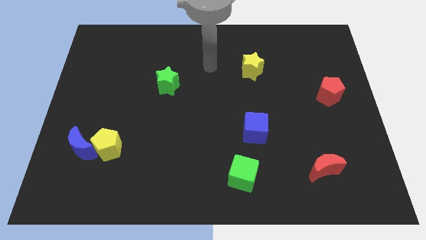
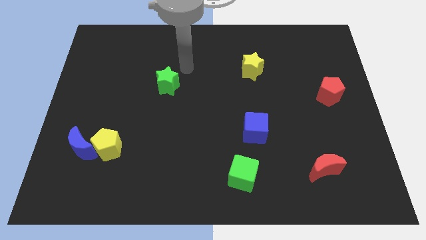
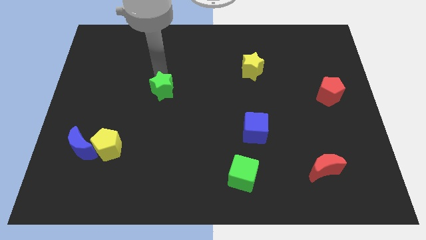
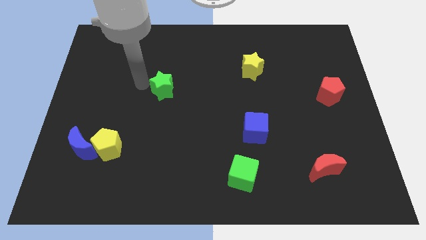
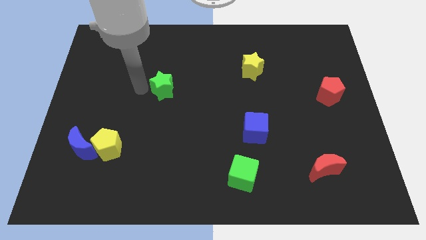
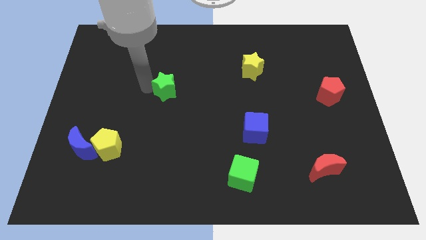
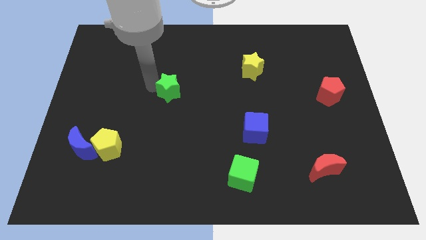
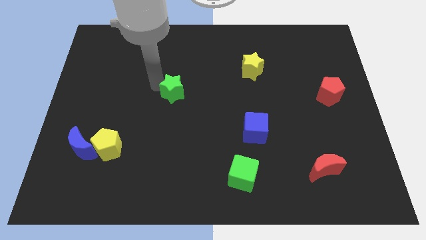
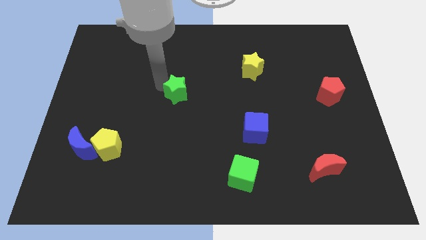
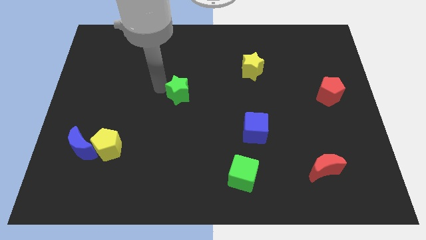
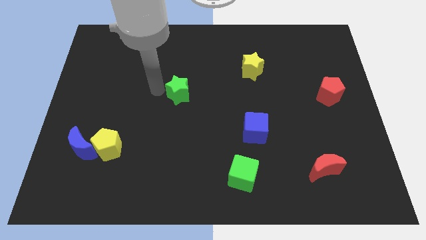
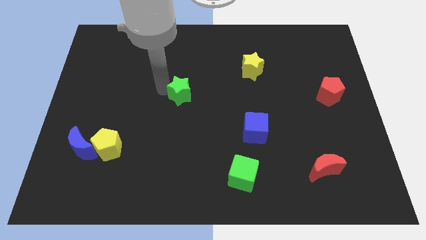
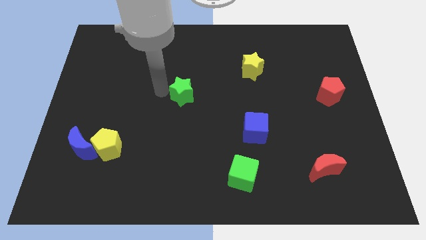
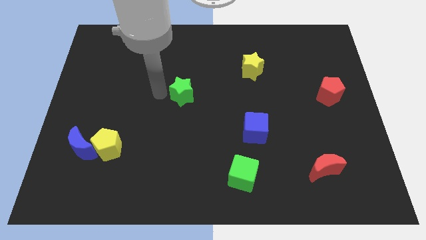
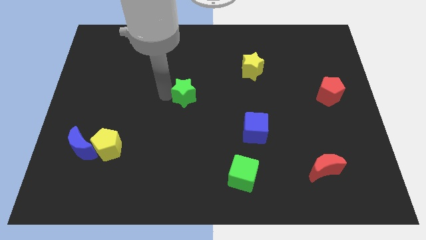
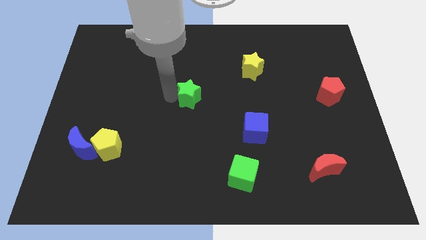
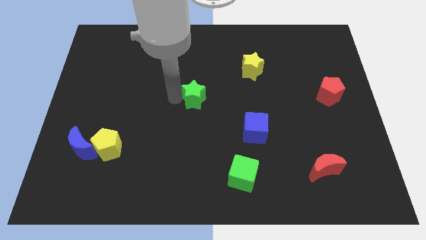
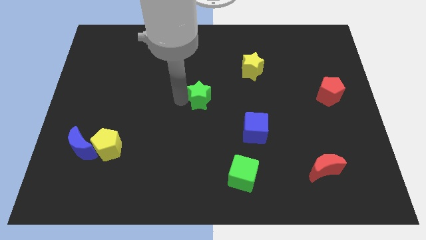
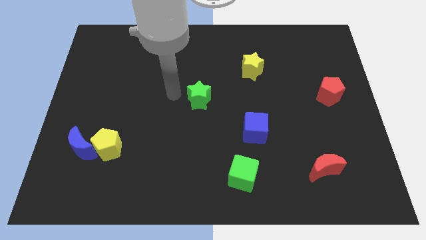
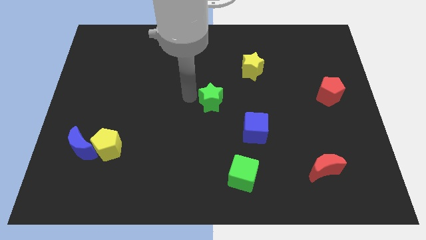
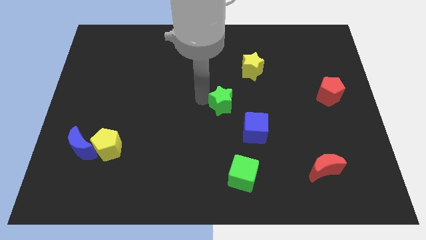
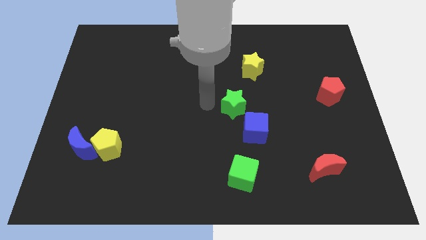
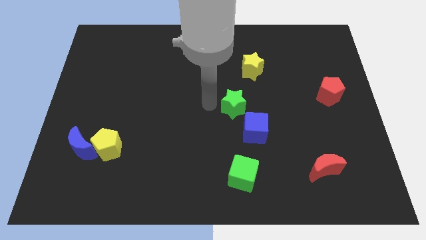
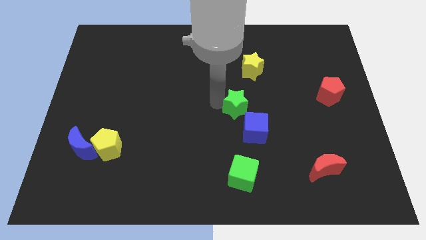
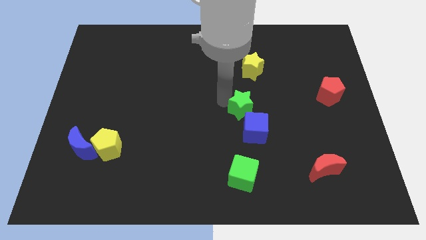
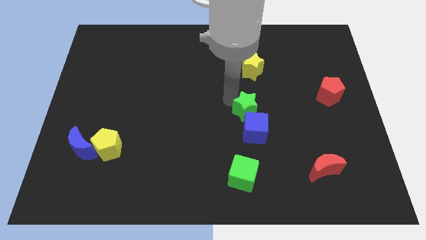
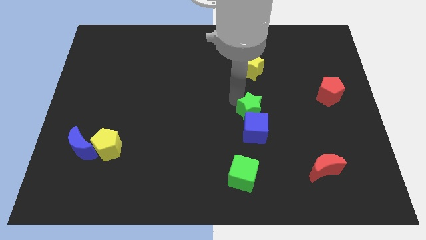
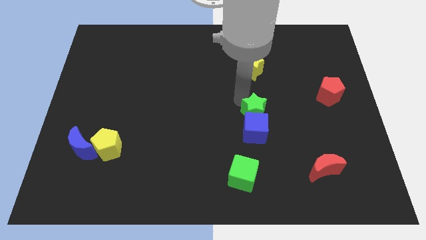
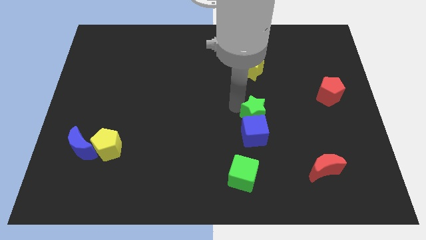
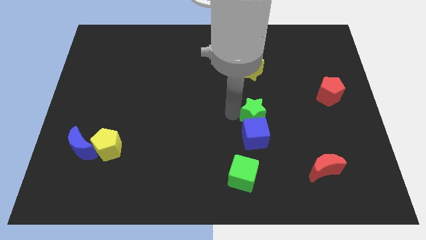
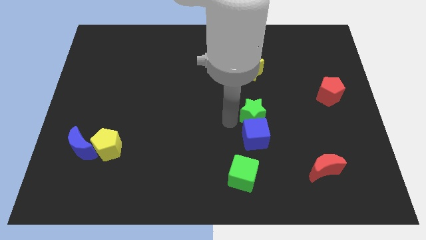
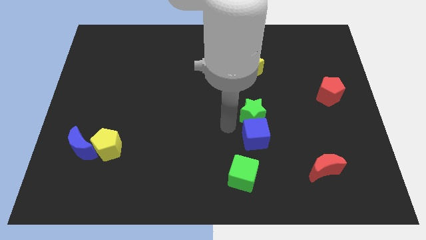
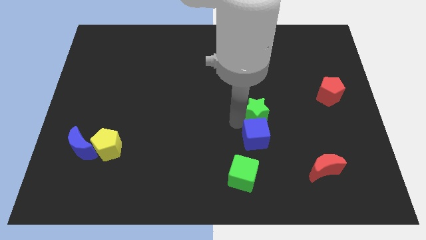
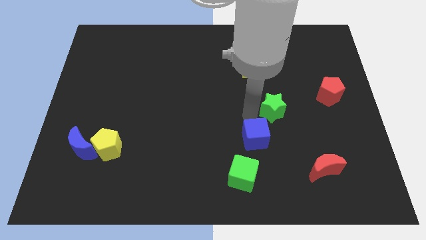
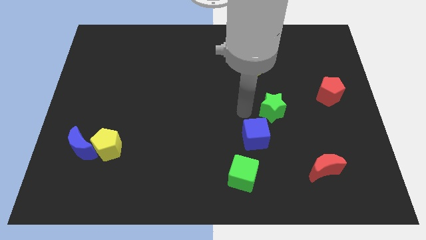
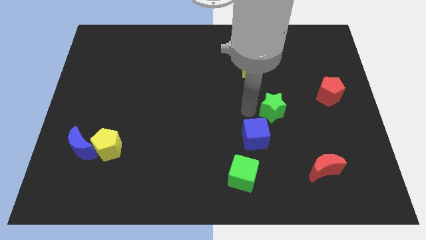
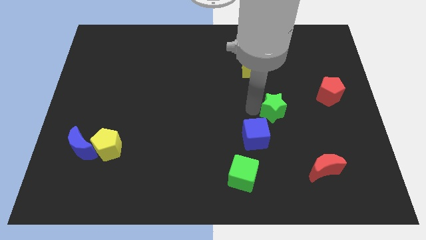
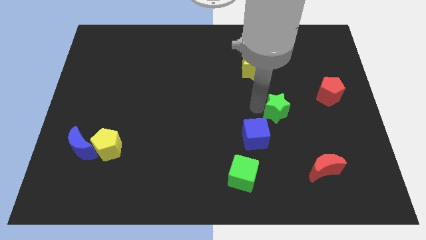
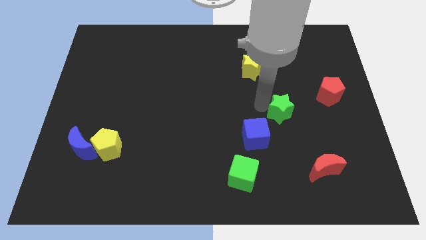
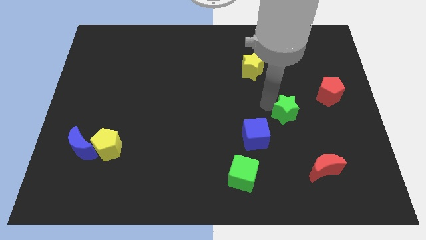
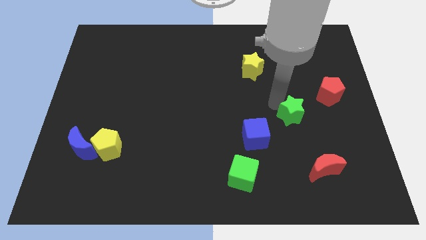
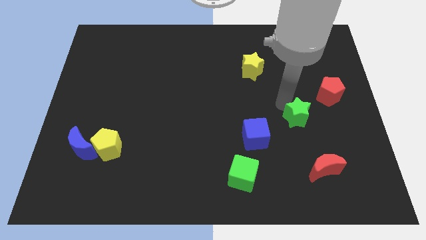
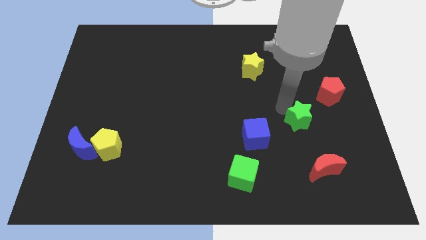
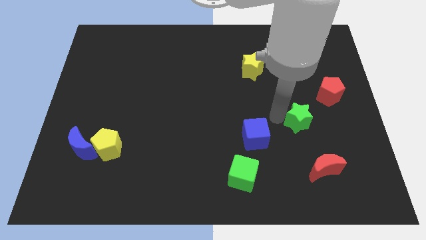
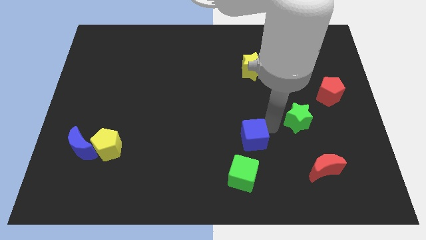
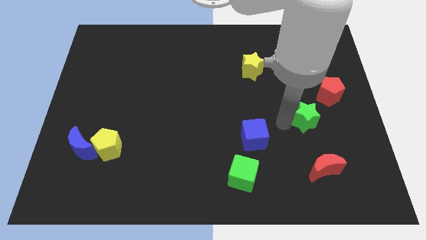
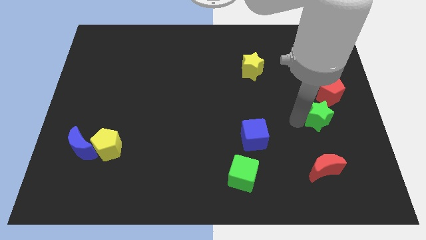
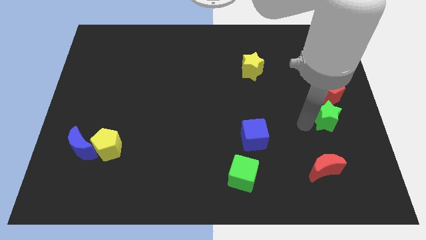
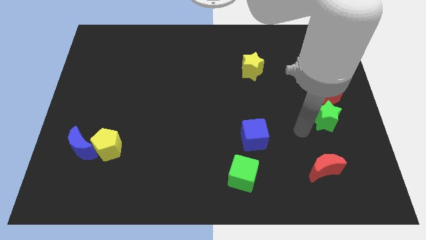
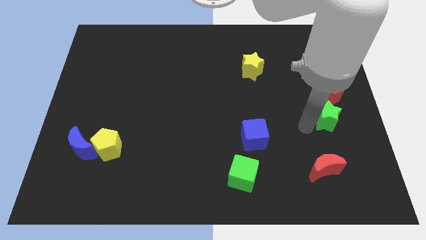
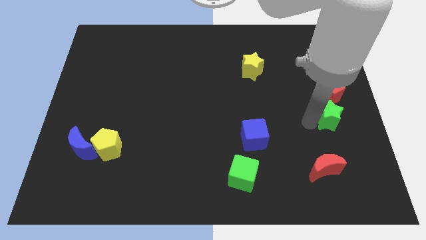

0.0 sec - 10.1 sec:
move the green star to the center right

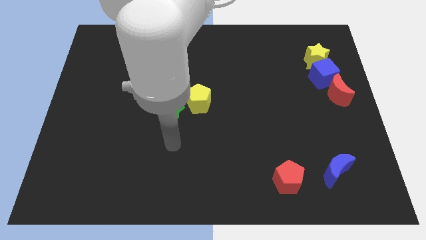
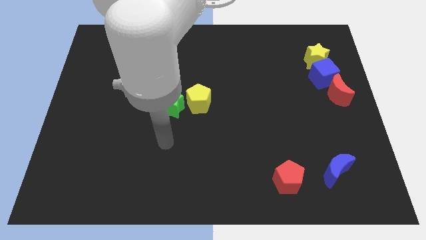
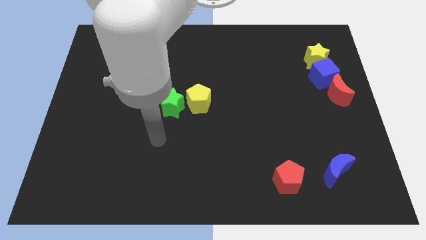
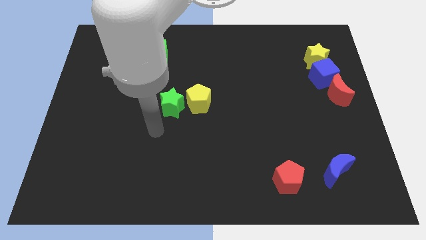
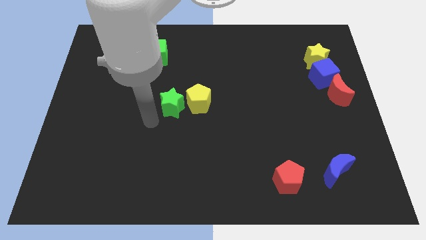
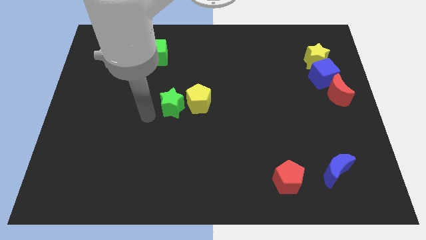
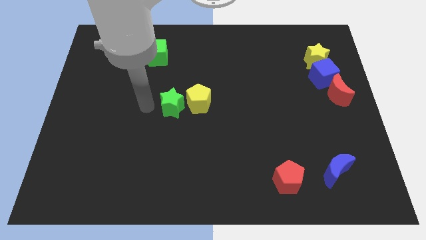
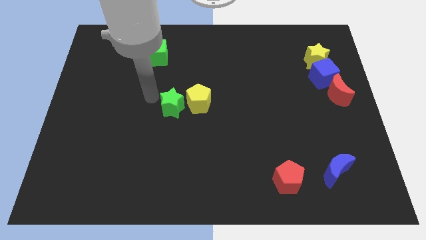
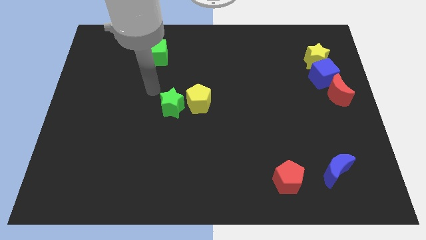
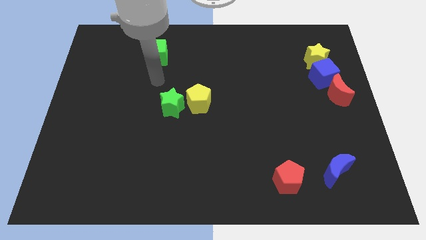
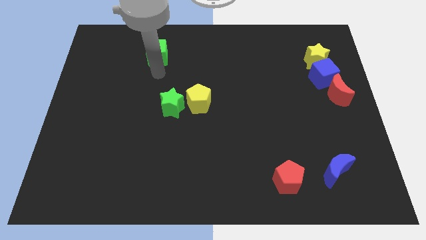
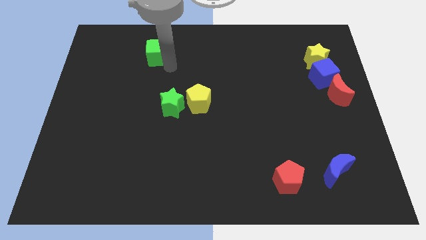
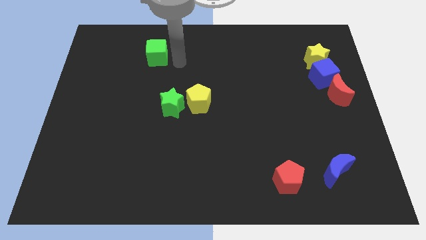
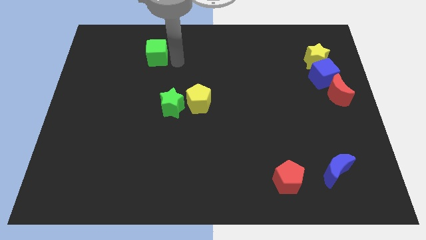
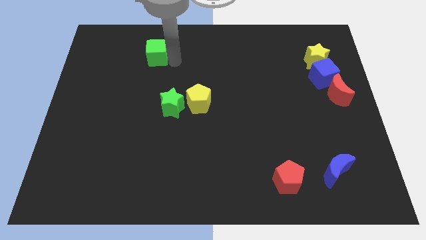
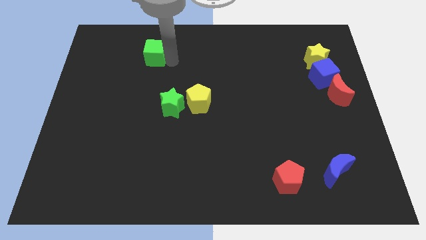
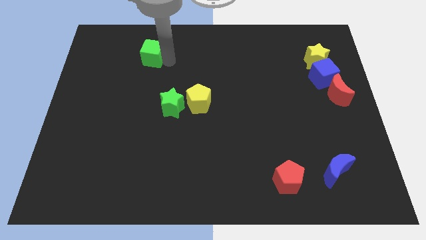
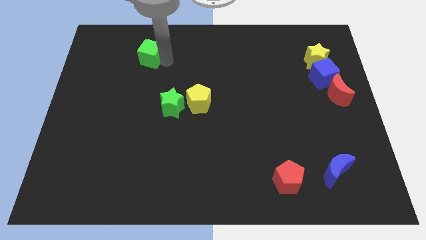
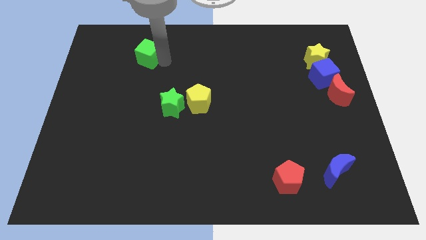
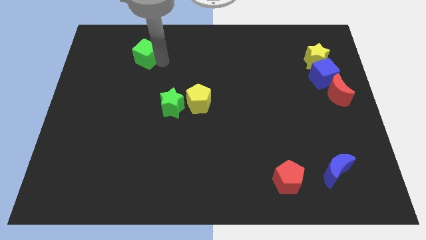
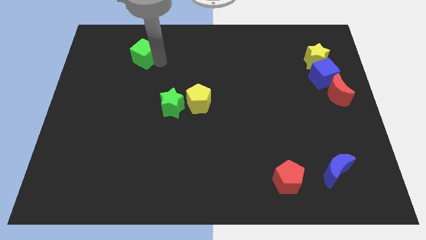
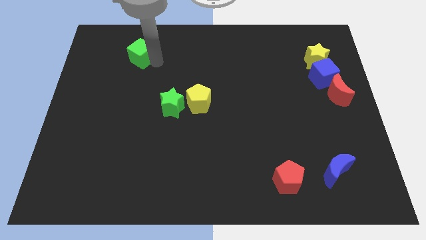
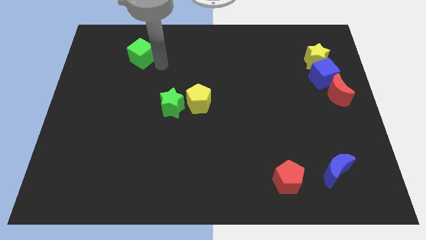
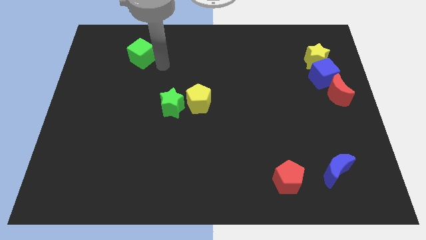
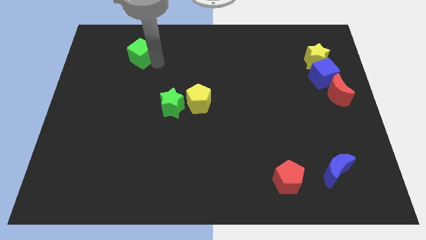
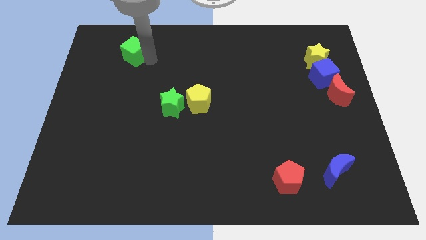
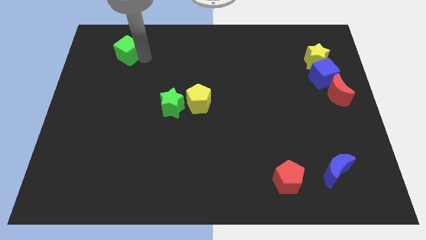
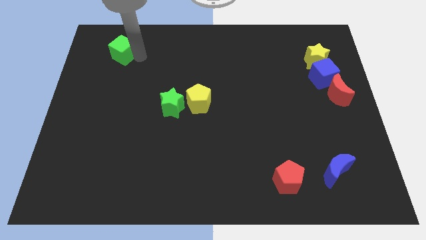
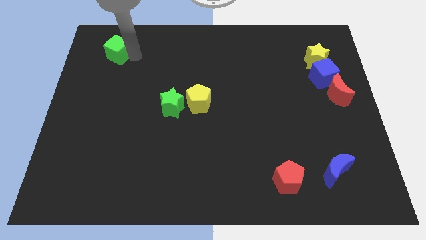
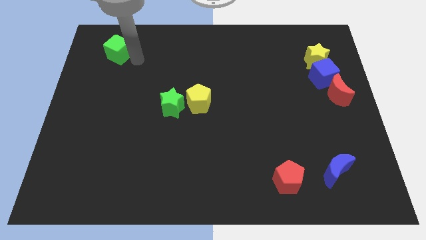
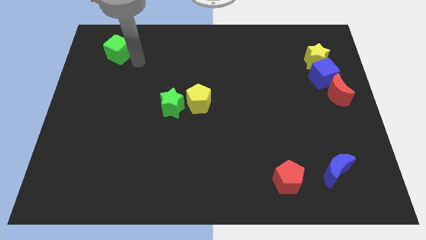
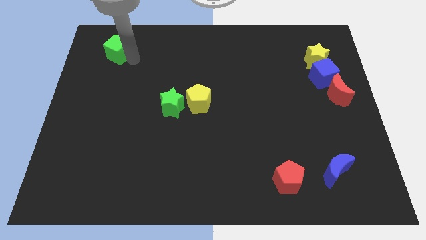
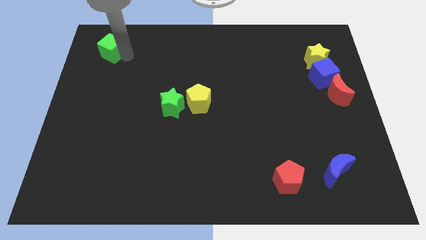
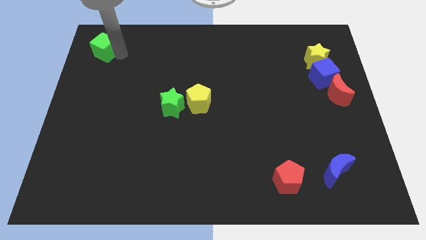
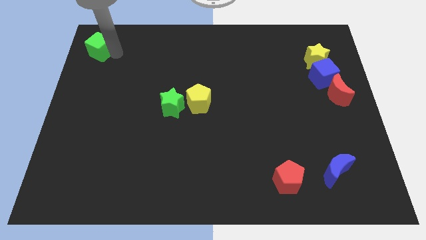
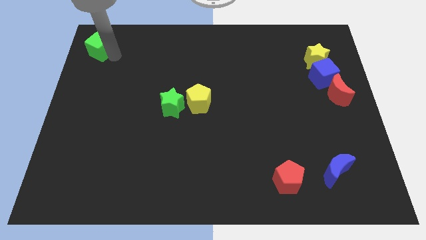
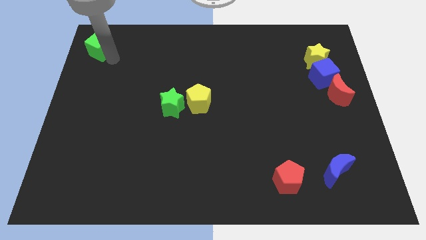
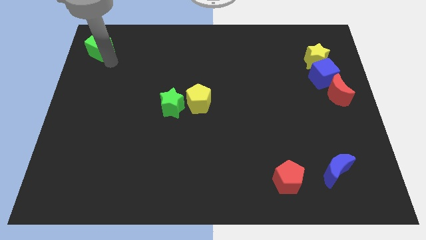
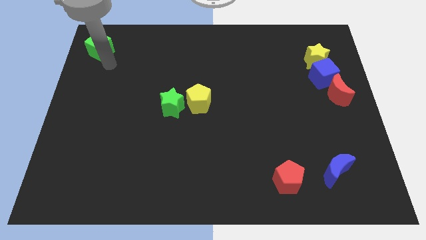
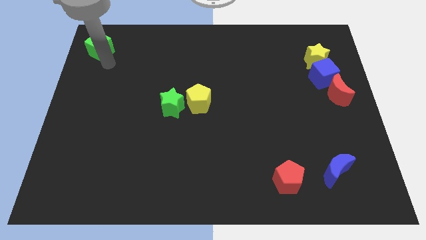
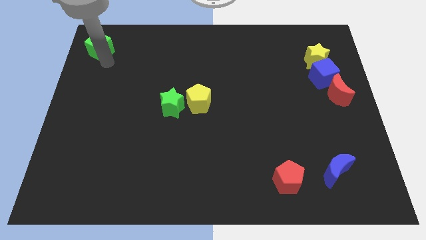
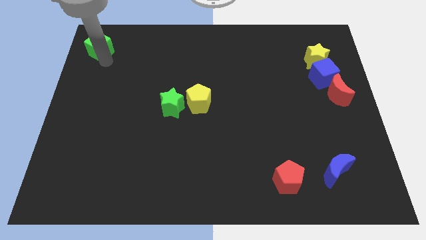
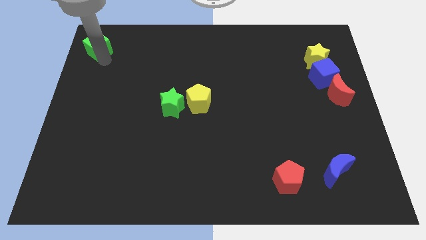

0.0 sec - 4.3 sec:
slide the green cube to the top left
